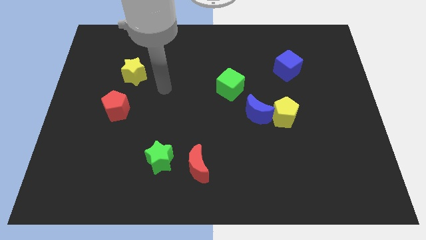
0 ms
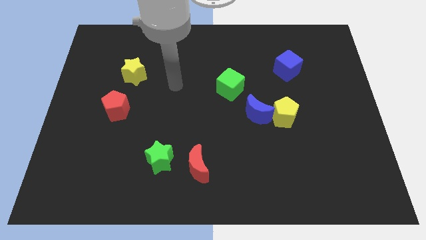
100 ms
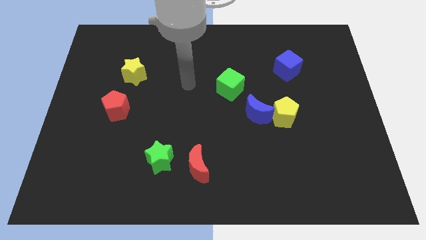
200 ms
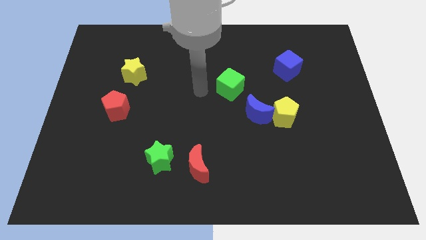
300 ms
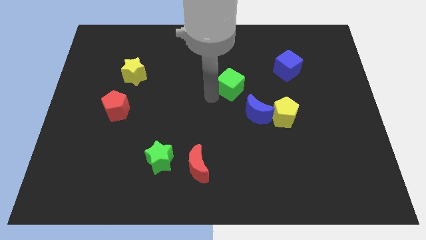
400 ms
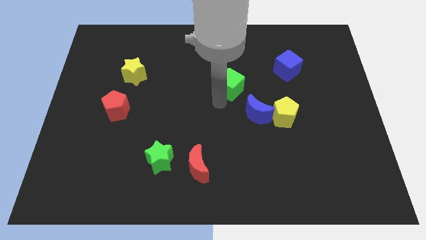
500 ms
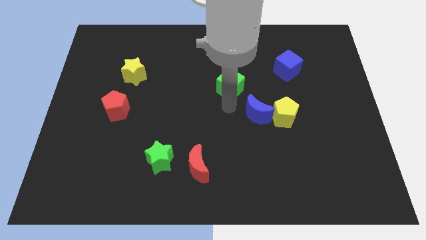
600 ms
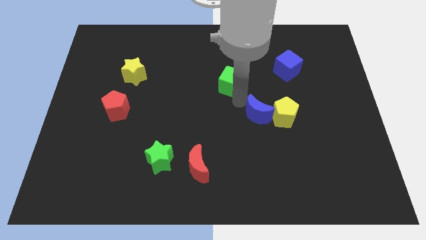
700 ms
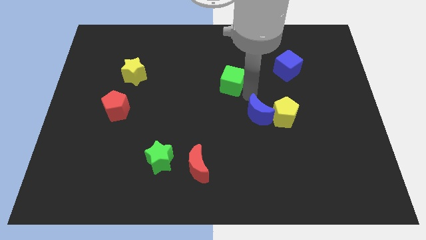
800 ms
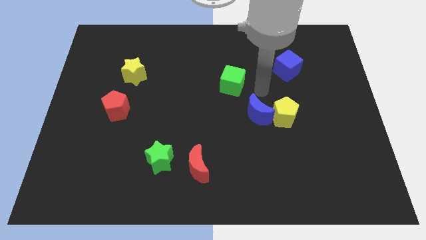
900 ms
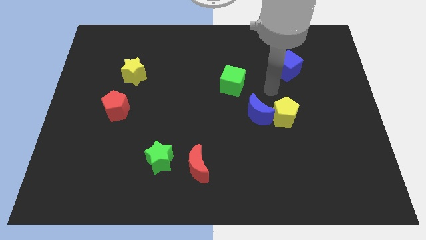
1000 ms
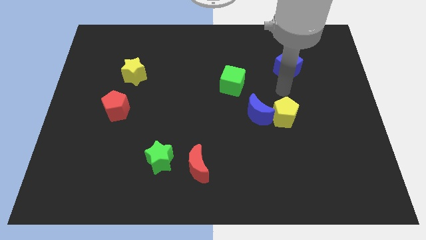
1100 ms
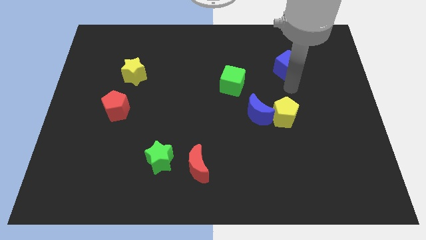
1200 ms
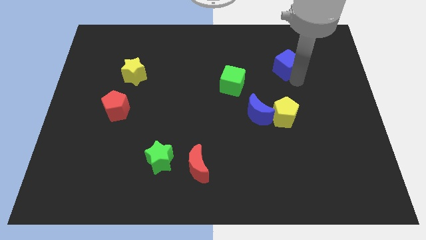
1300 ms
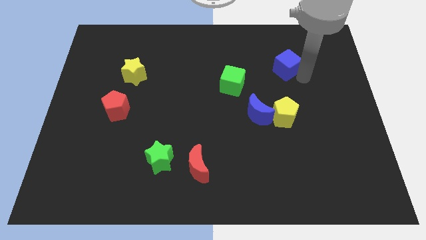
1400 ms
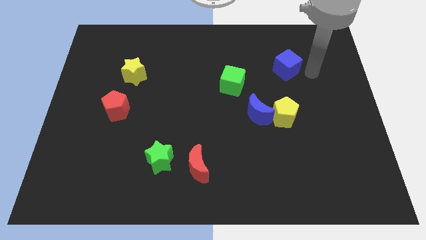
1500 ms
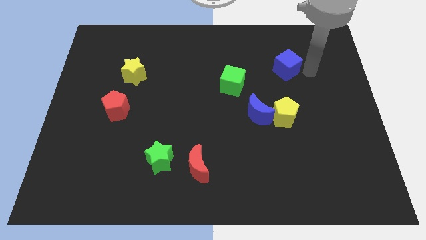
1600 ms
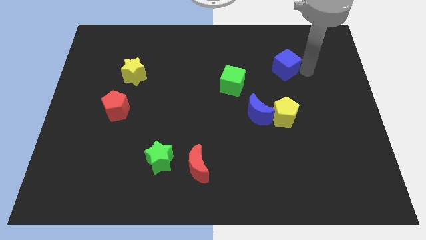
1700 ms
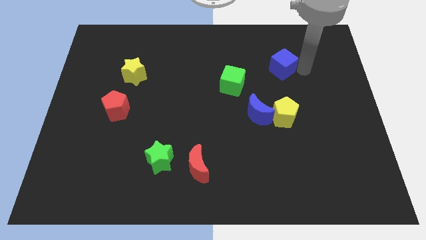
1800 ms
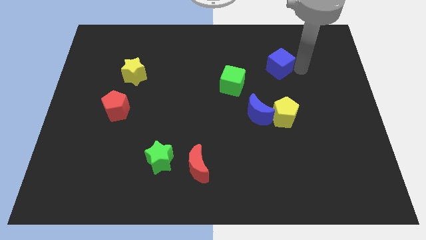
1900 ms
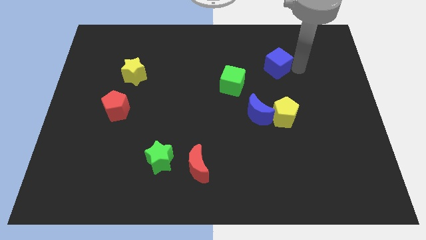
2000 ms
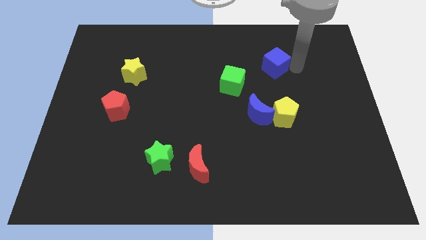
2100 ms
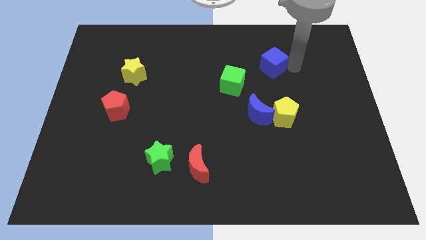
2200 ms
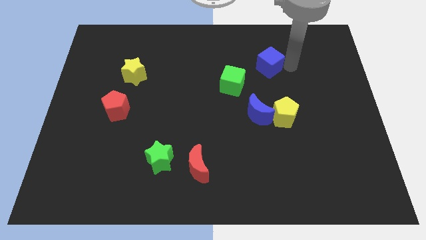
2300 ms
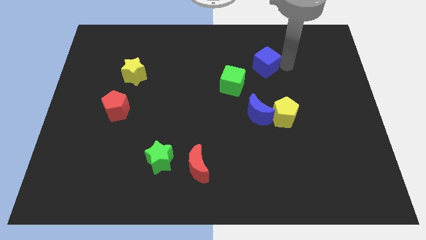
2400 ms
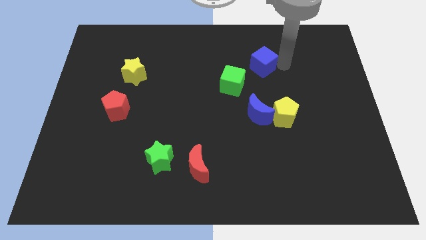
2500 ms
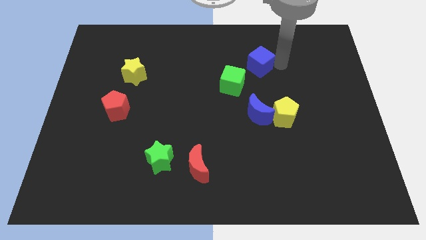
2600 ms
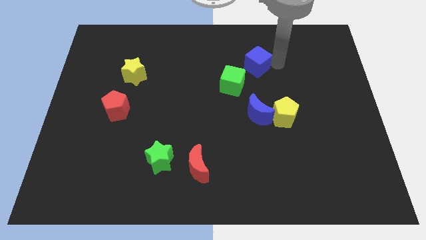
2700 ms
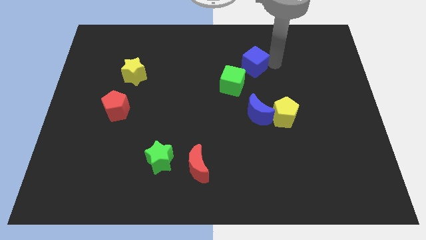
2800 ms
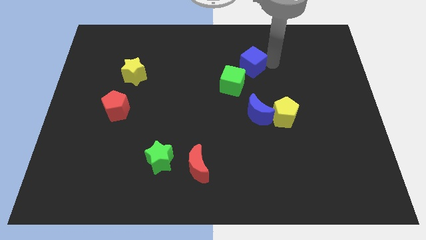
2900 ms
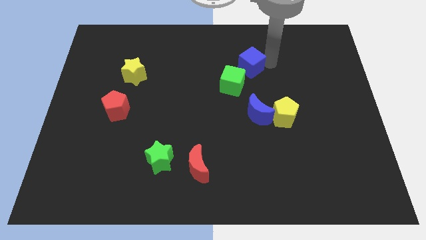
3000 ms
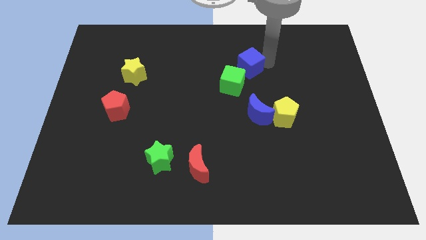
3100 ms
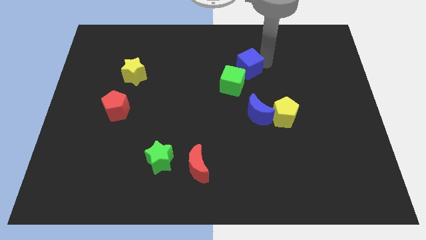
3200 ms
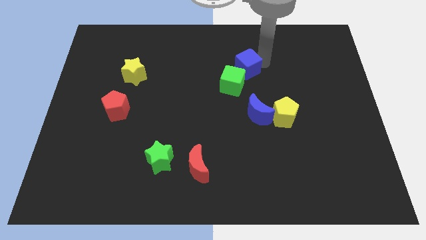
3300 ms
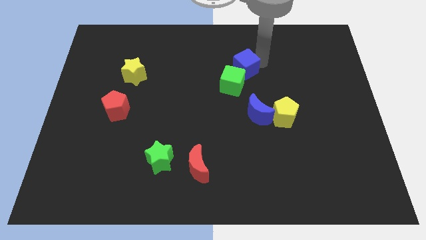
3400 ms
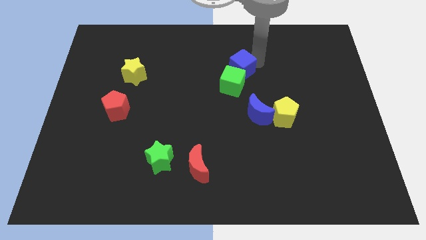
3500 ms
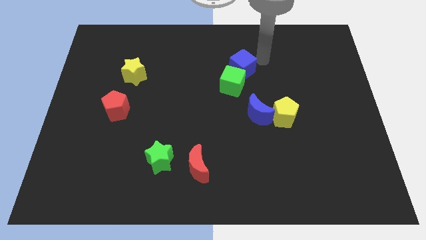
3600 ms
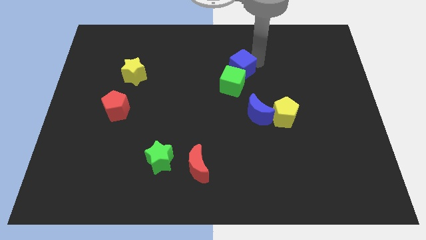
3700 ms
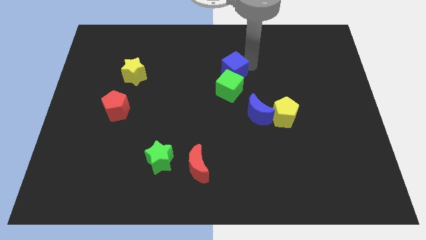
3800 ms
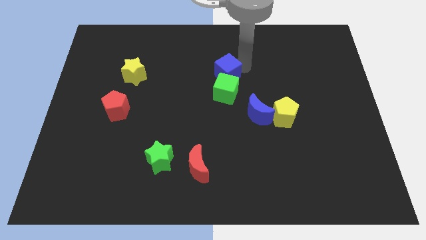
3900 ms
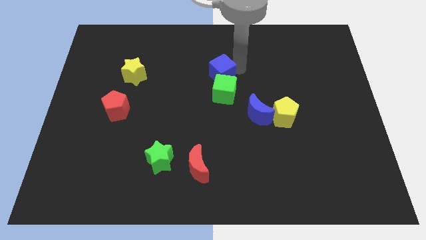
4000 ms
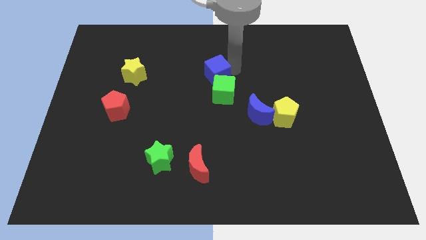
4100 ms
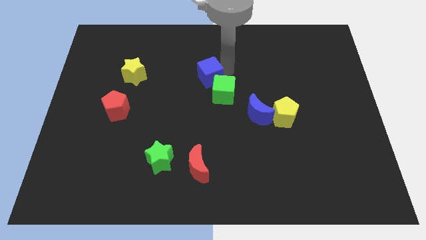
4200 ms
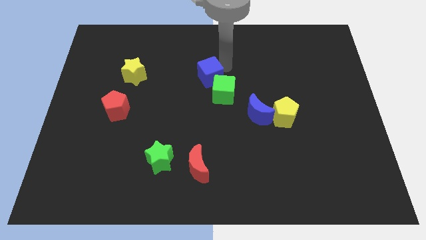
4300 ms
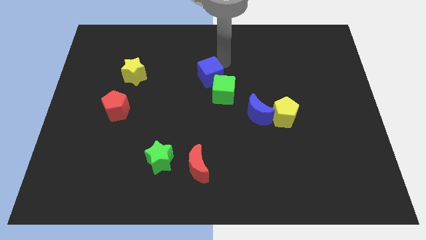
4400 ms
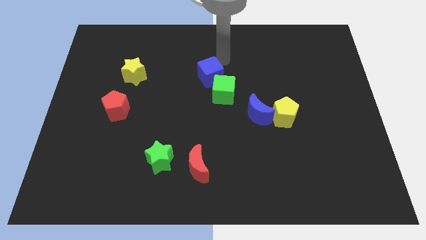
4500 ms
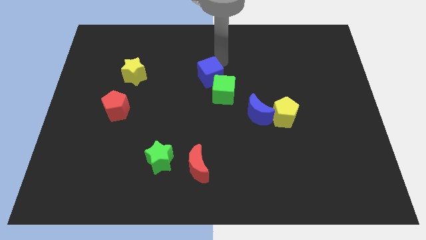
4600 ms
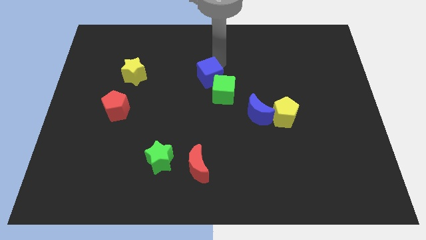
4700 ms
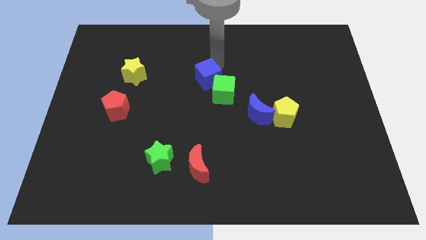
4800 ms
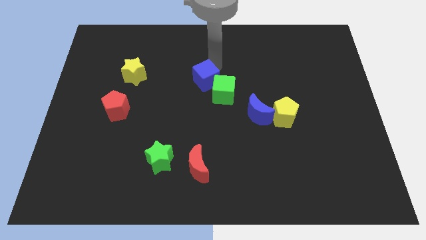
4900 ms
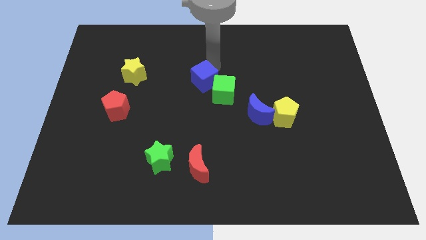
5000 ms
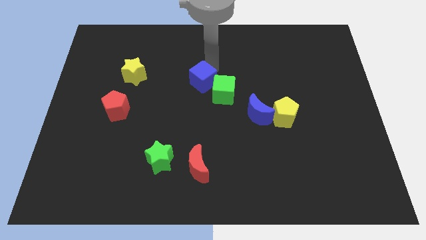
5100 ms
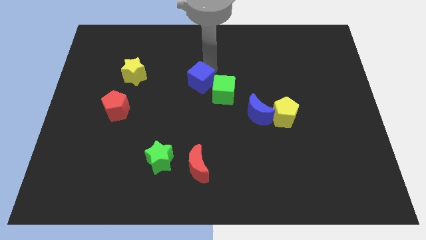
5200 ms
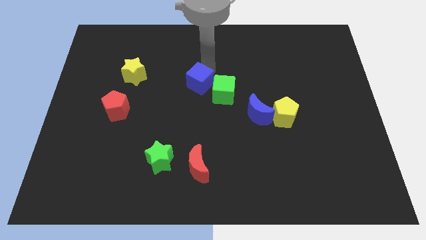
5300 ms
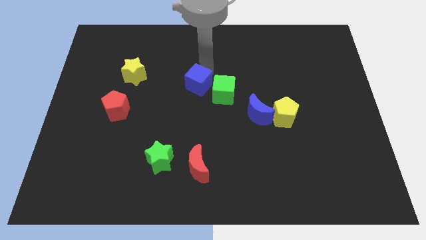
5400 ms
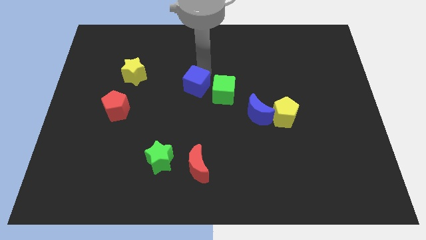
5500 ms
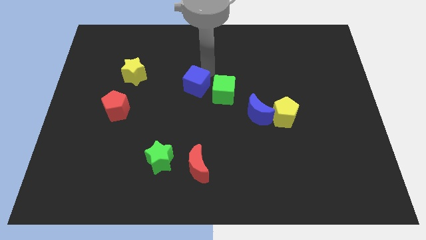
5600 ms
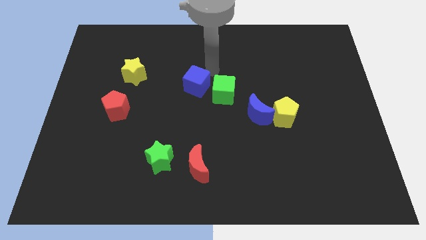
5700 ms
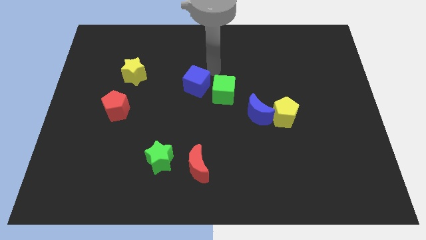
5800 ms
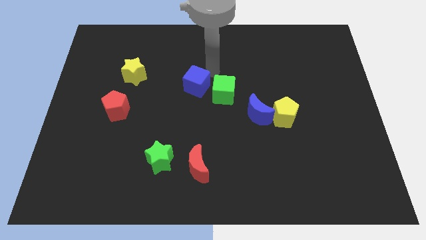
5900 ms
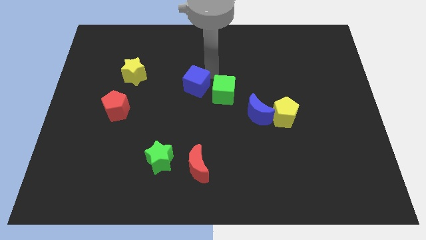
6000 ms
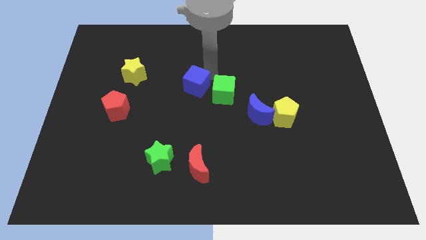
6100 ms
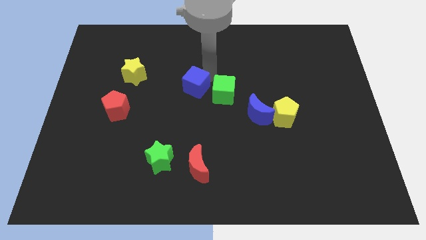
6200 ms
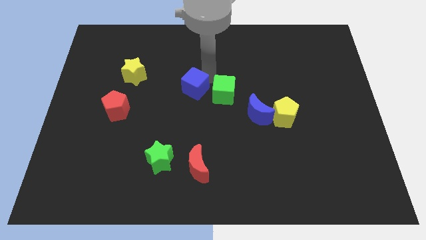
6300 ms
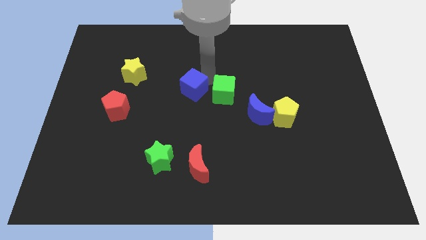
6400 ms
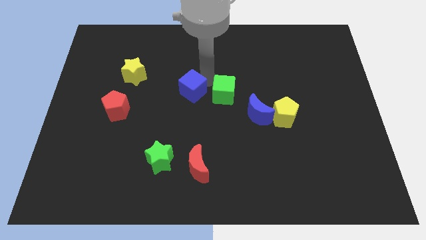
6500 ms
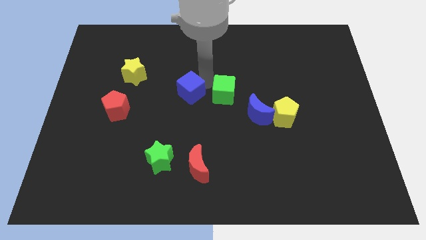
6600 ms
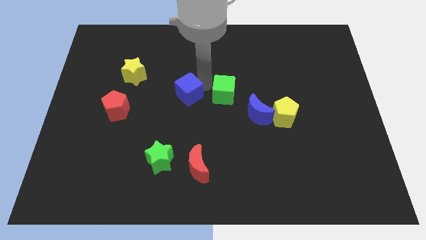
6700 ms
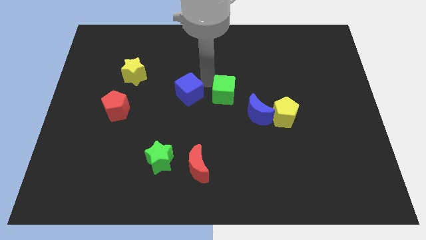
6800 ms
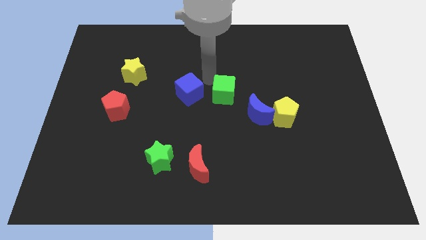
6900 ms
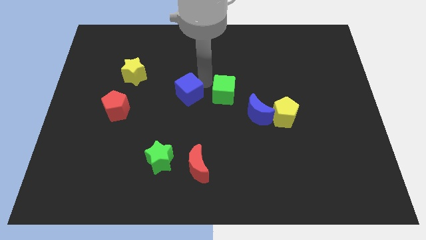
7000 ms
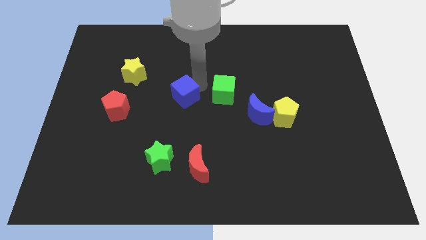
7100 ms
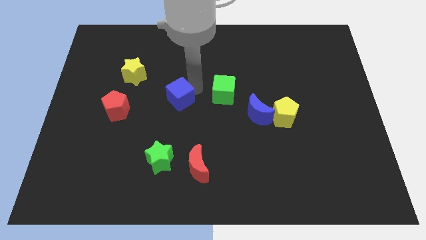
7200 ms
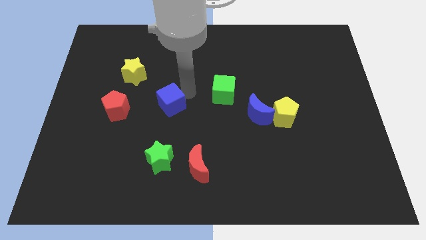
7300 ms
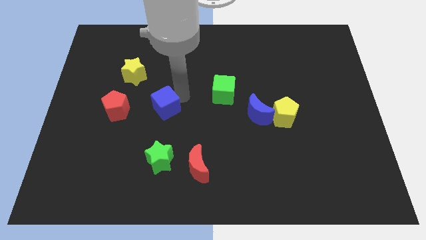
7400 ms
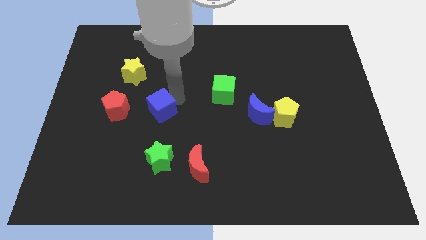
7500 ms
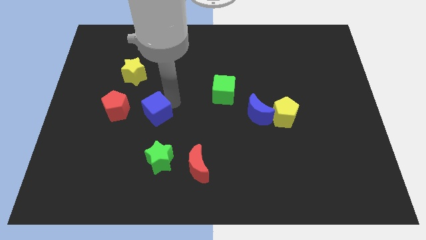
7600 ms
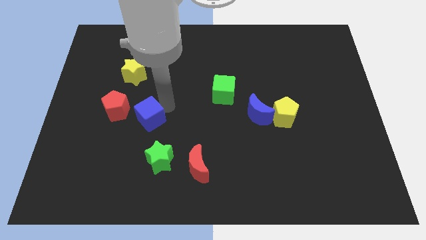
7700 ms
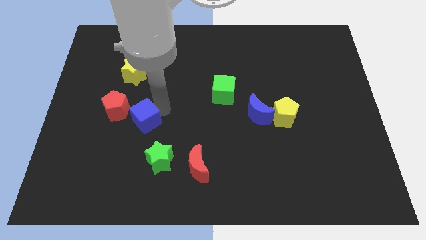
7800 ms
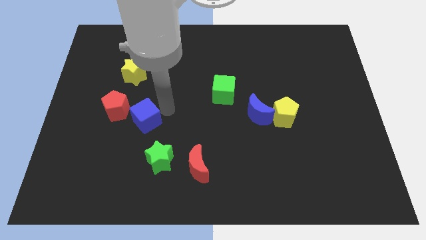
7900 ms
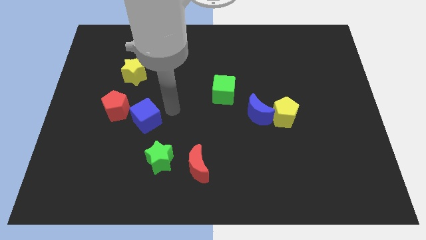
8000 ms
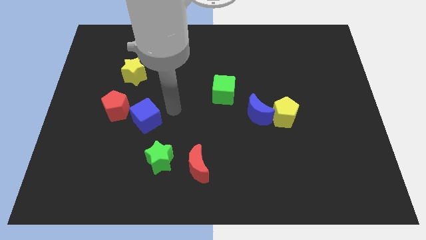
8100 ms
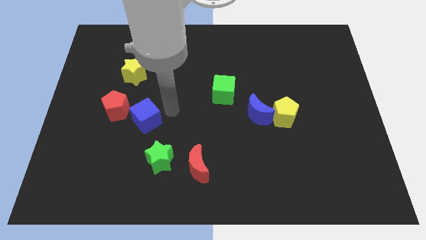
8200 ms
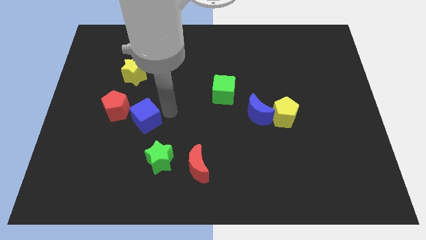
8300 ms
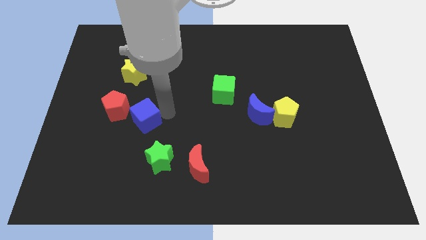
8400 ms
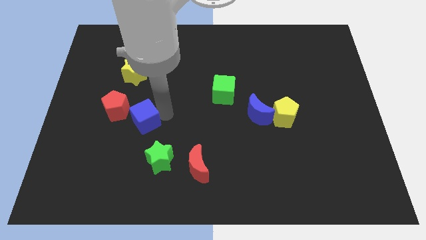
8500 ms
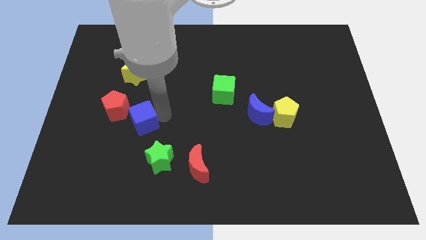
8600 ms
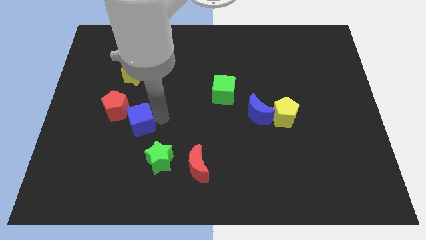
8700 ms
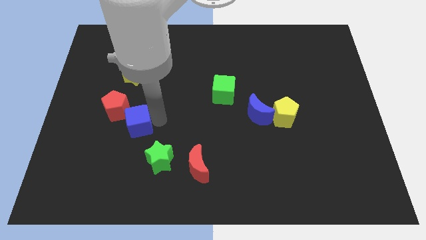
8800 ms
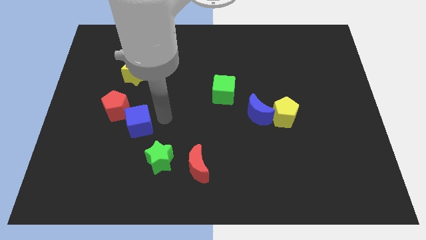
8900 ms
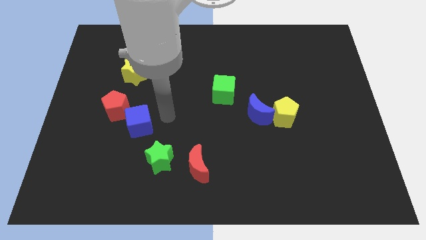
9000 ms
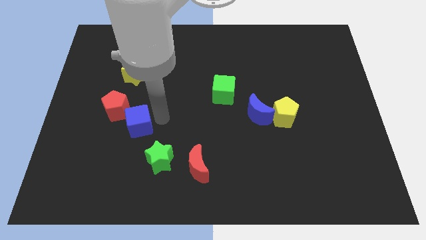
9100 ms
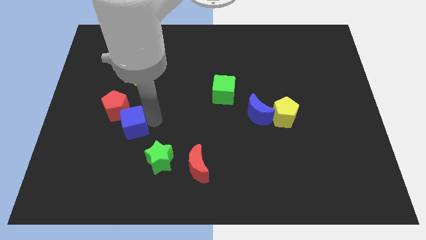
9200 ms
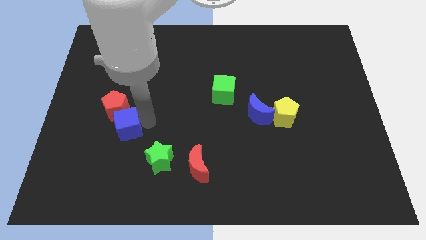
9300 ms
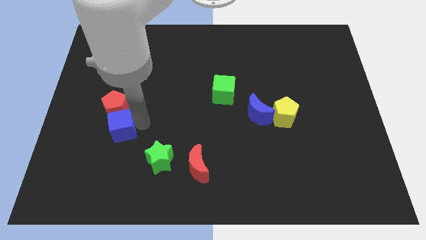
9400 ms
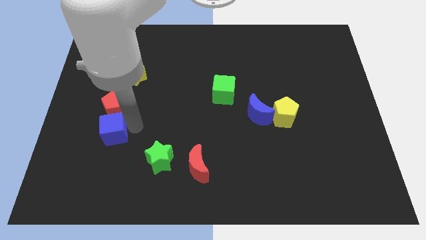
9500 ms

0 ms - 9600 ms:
put the blue cube diagonally down and to the left of the red pentagon
